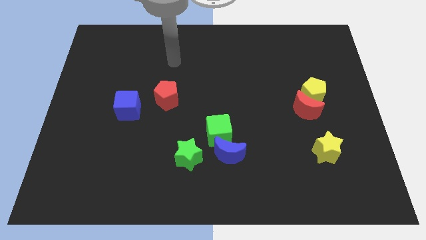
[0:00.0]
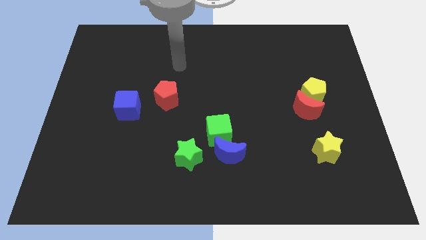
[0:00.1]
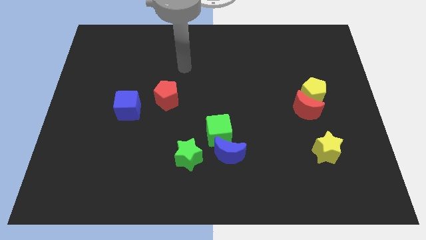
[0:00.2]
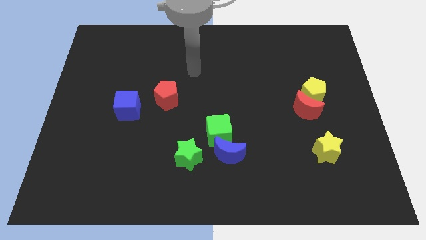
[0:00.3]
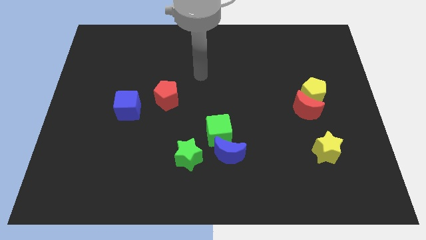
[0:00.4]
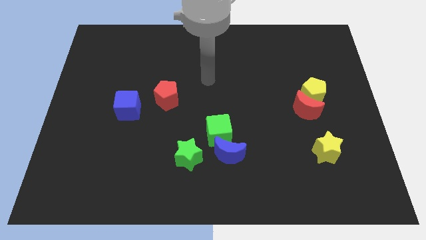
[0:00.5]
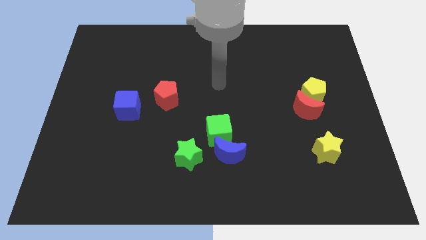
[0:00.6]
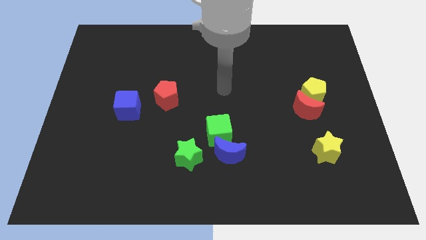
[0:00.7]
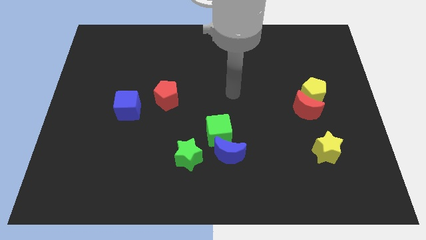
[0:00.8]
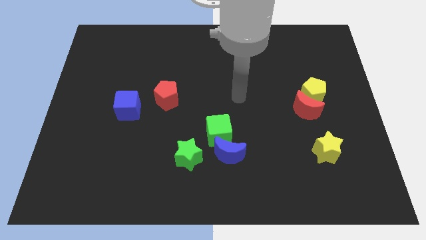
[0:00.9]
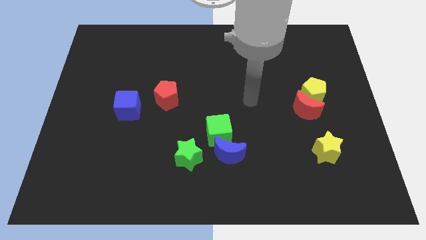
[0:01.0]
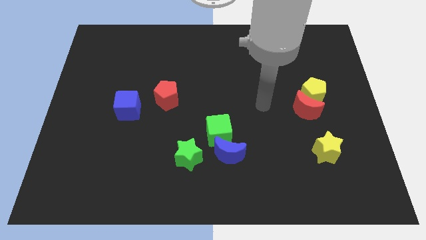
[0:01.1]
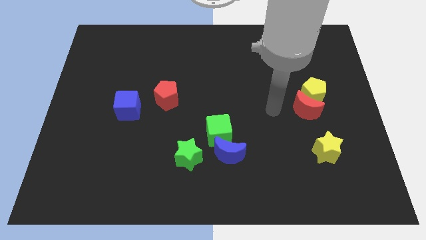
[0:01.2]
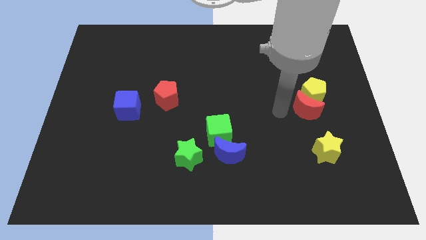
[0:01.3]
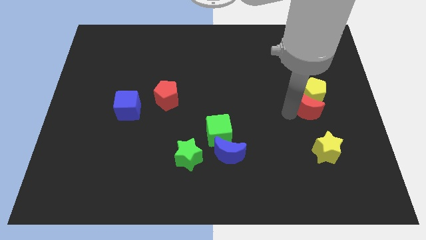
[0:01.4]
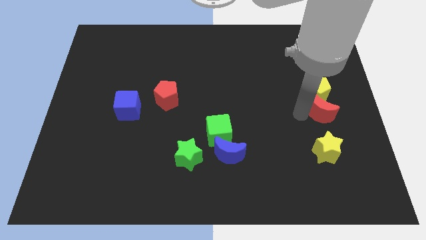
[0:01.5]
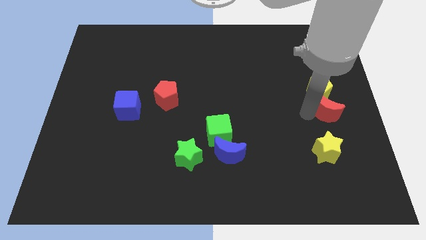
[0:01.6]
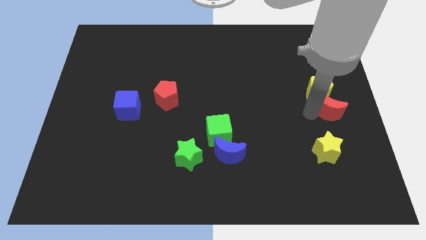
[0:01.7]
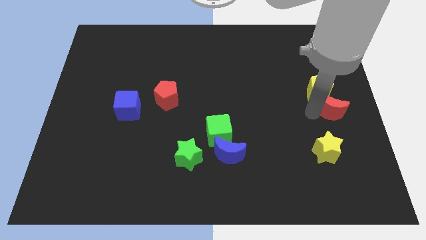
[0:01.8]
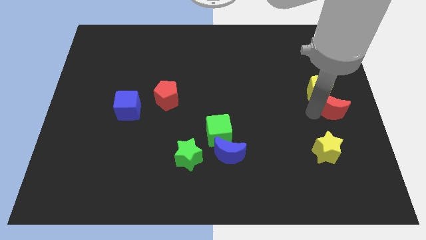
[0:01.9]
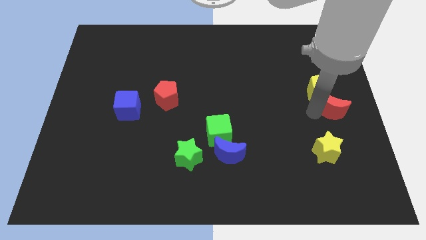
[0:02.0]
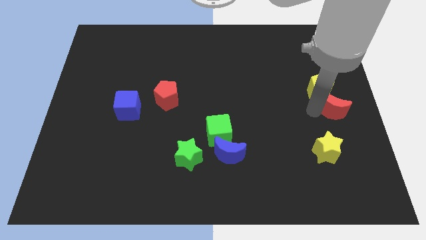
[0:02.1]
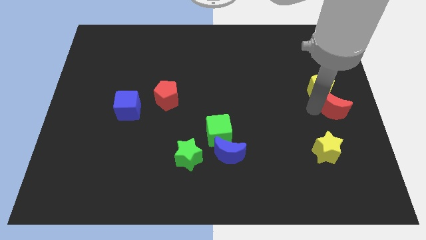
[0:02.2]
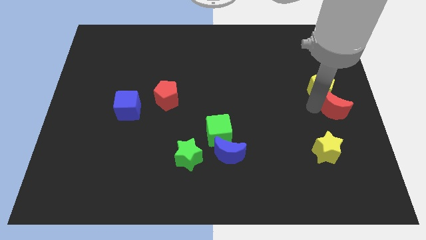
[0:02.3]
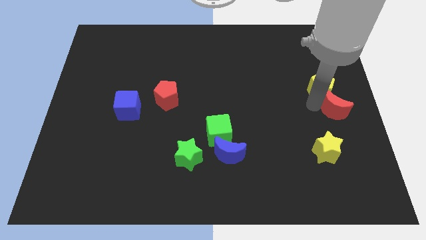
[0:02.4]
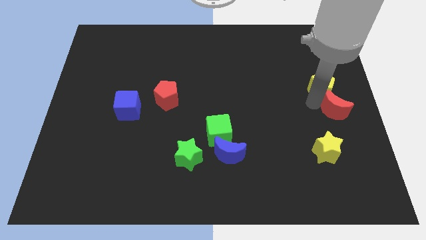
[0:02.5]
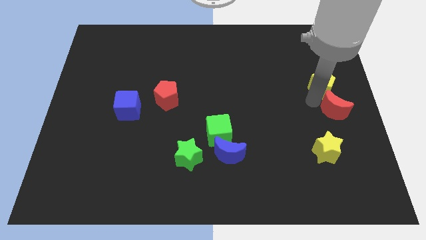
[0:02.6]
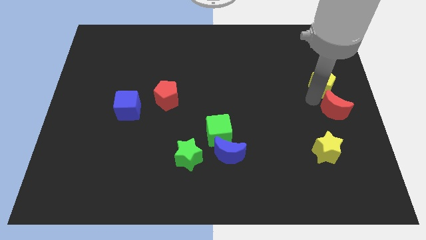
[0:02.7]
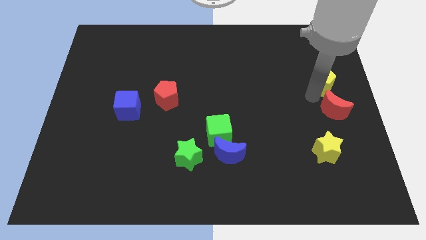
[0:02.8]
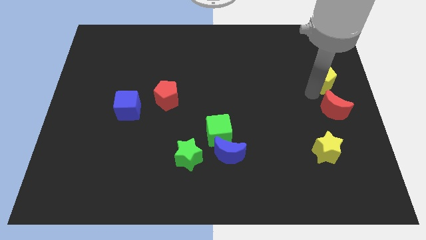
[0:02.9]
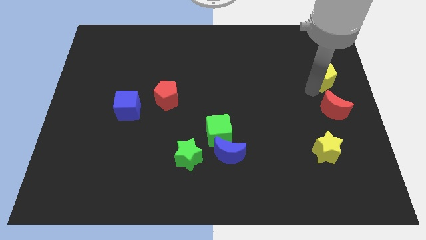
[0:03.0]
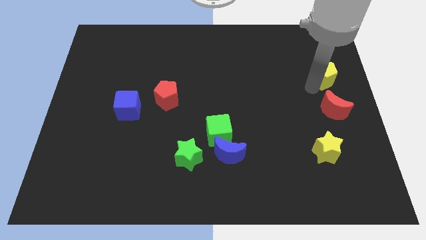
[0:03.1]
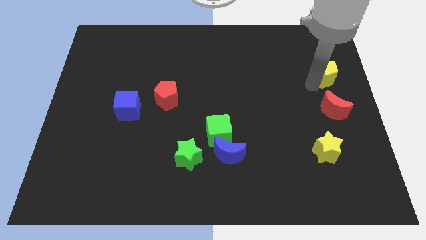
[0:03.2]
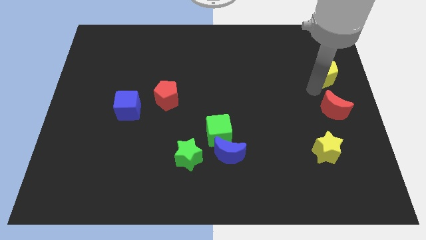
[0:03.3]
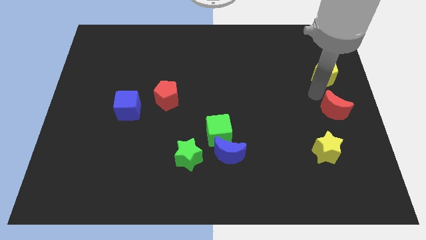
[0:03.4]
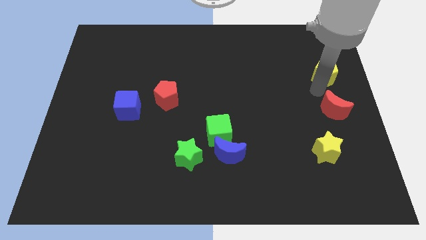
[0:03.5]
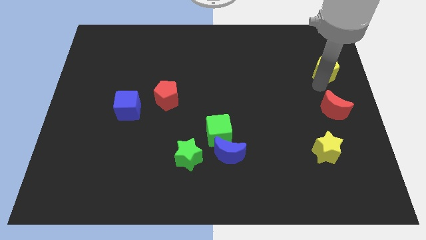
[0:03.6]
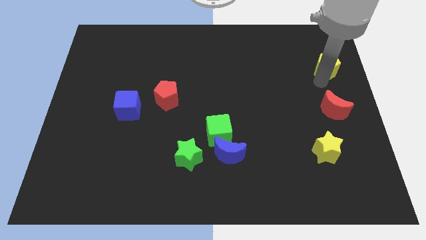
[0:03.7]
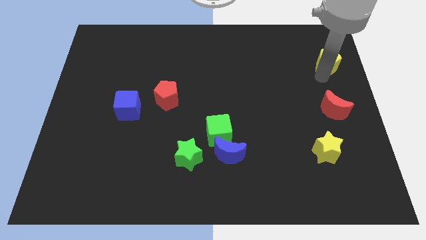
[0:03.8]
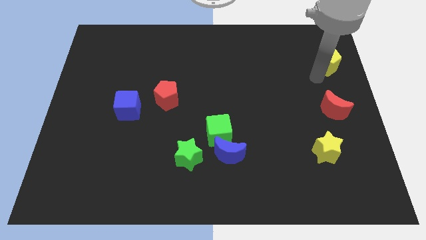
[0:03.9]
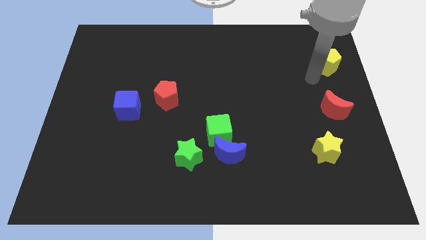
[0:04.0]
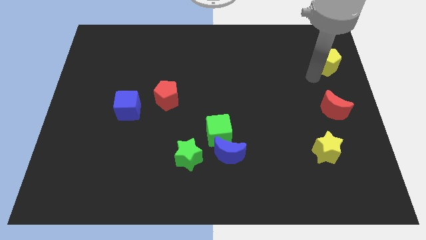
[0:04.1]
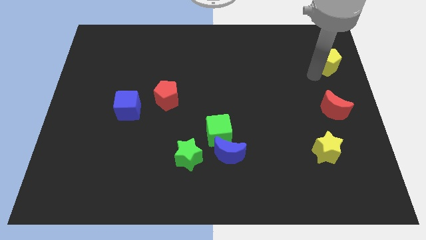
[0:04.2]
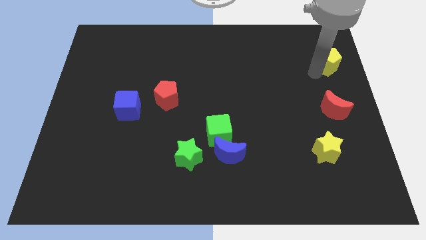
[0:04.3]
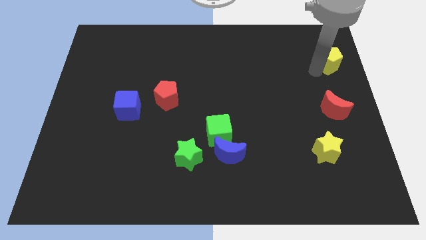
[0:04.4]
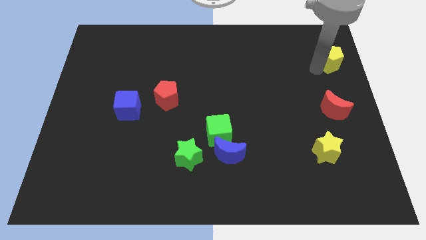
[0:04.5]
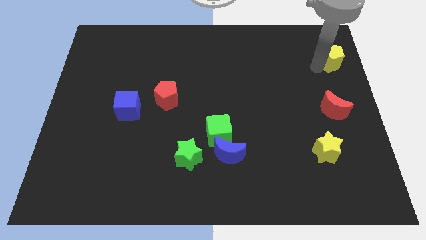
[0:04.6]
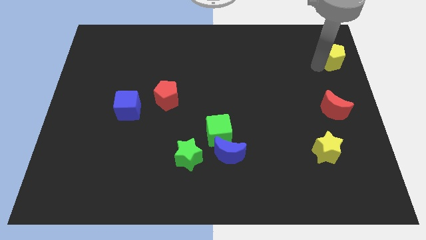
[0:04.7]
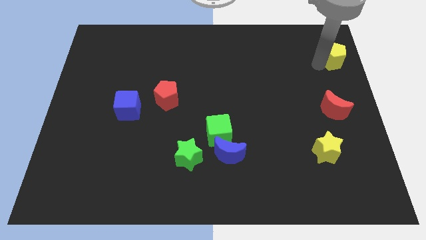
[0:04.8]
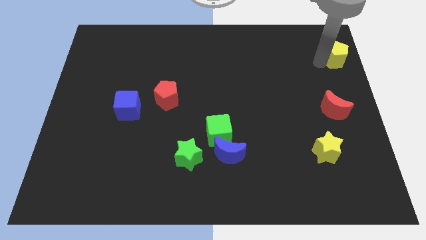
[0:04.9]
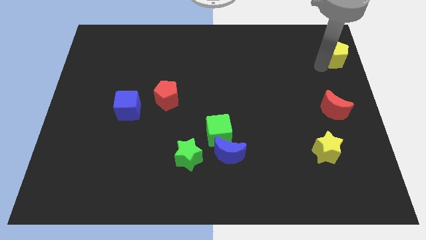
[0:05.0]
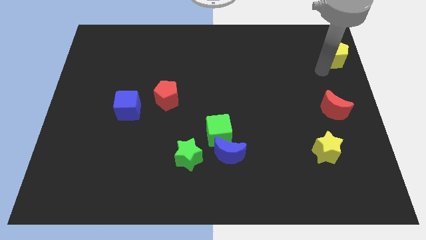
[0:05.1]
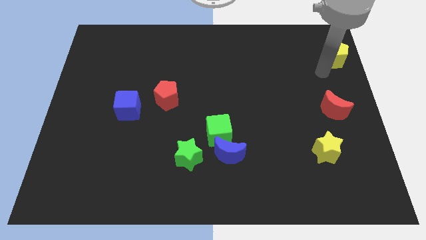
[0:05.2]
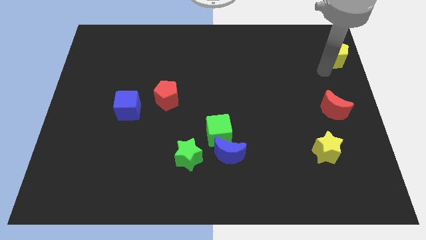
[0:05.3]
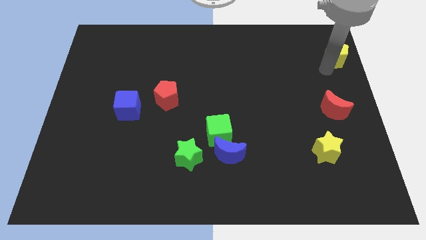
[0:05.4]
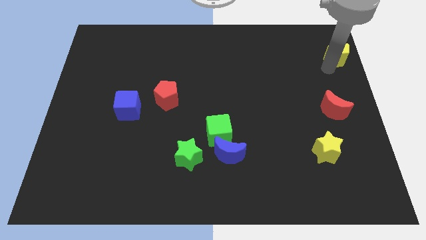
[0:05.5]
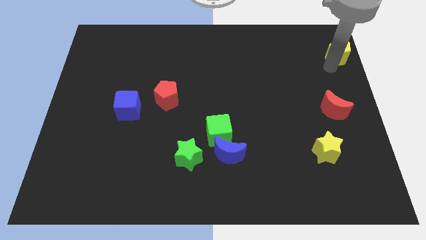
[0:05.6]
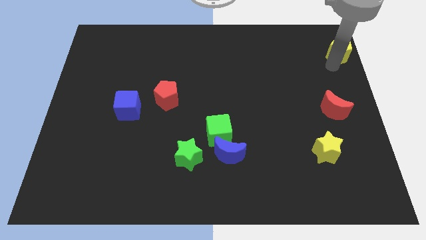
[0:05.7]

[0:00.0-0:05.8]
move the yellow pentagon to the top right corner
